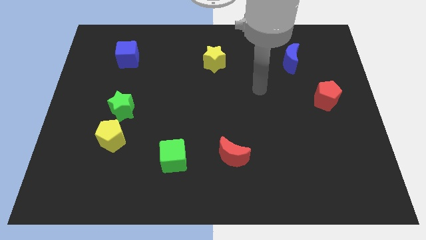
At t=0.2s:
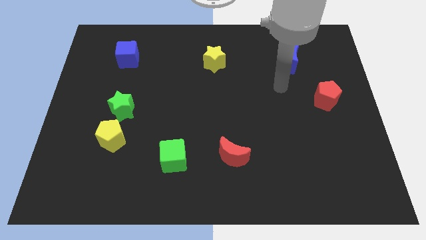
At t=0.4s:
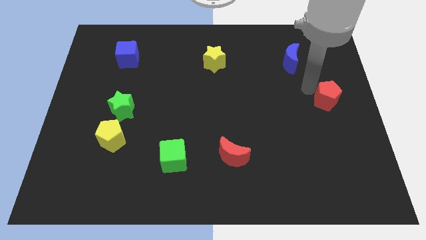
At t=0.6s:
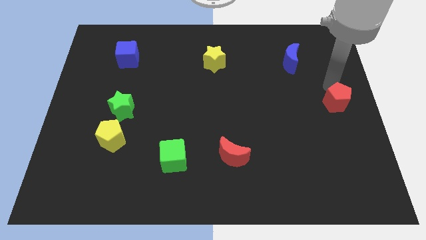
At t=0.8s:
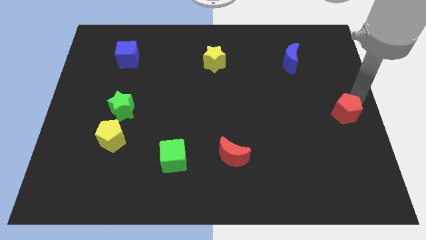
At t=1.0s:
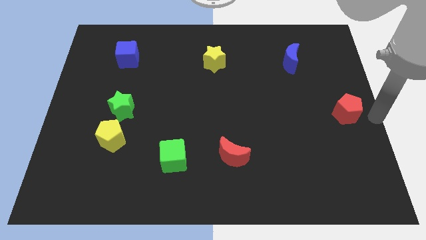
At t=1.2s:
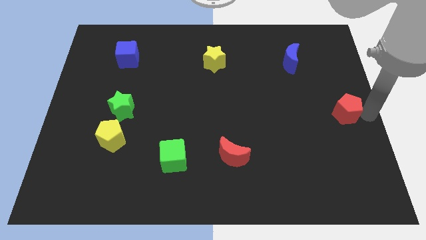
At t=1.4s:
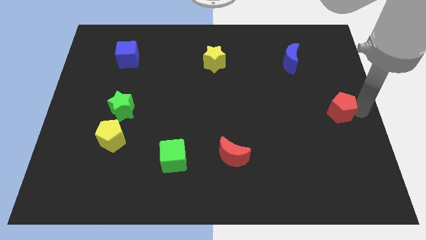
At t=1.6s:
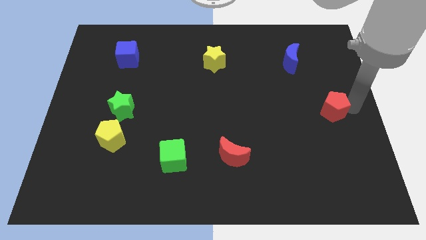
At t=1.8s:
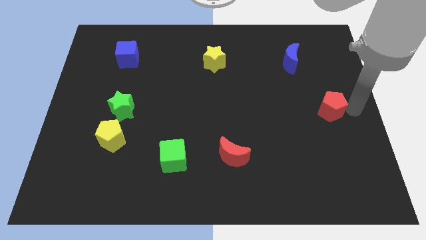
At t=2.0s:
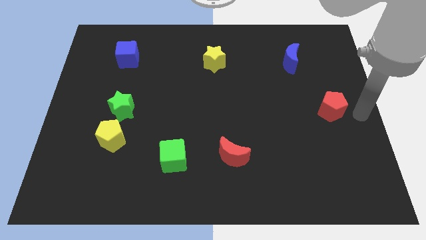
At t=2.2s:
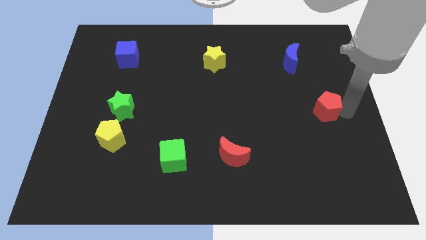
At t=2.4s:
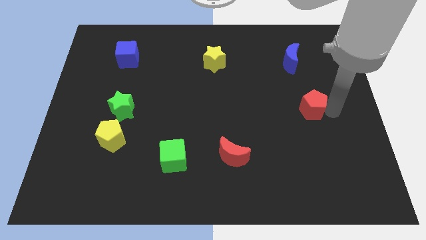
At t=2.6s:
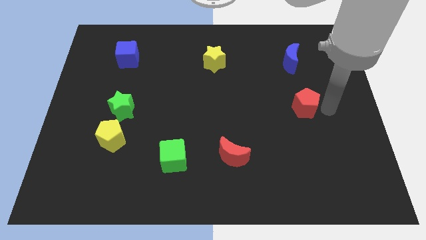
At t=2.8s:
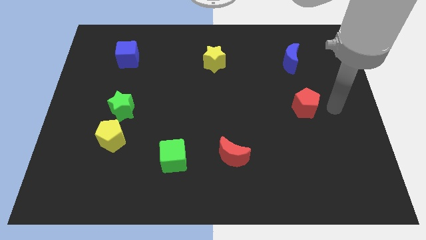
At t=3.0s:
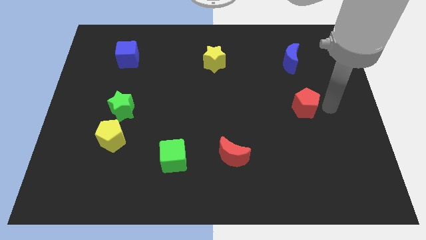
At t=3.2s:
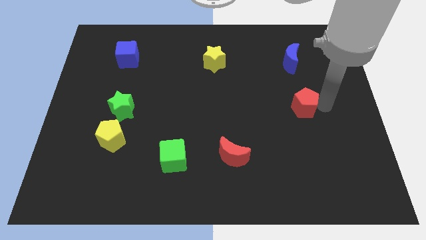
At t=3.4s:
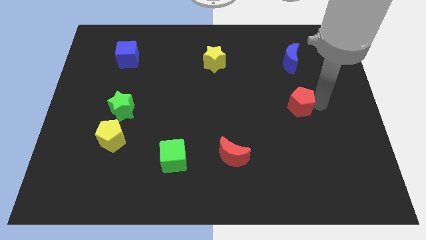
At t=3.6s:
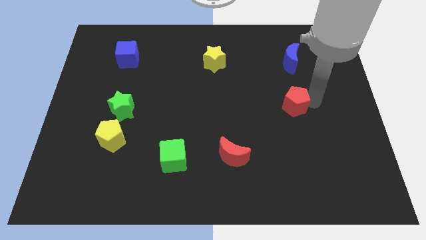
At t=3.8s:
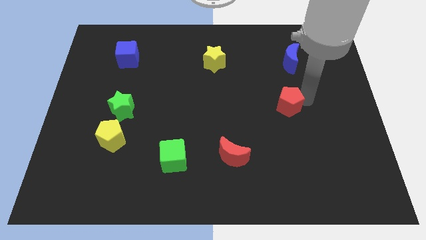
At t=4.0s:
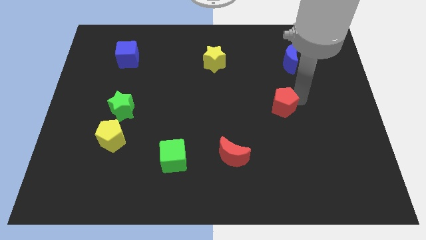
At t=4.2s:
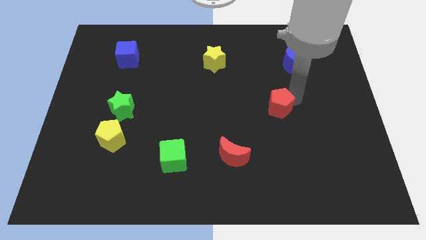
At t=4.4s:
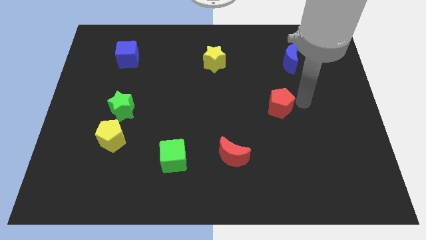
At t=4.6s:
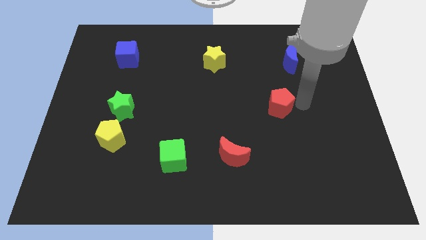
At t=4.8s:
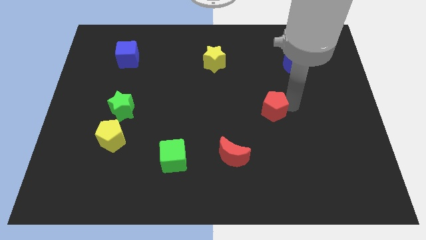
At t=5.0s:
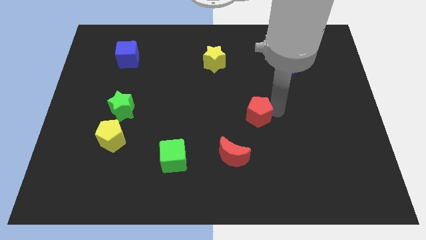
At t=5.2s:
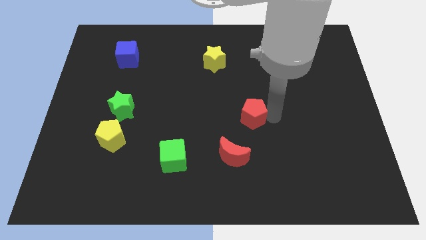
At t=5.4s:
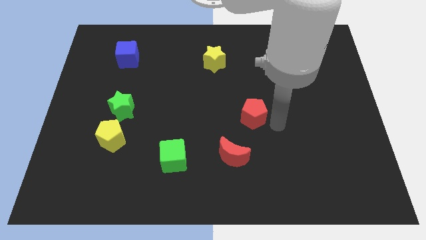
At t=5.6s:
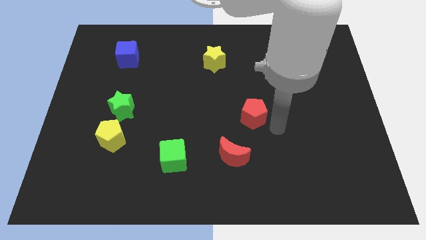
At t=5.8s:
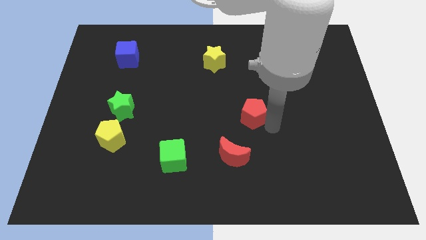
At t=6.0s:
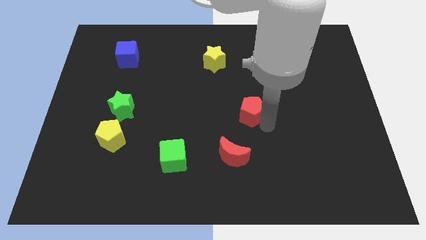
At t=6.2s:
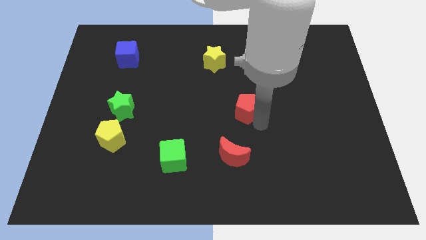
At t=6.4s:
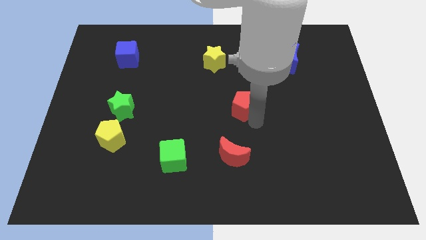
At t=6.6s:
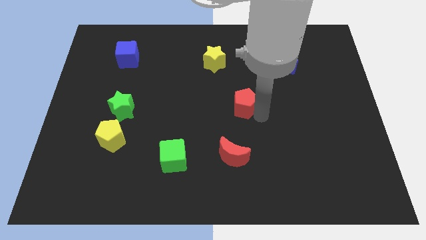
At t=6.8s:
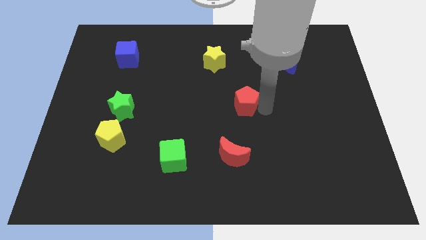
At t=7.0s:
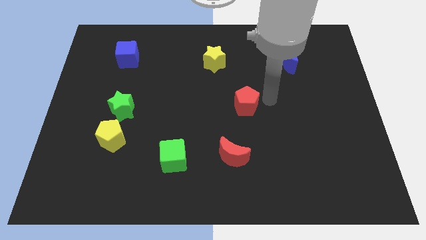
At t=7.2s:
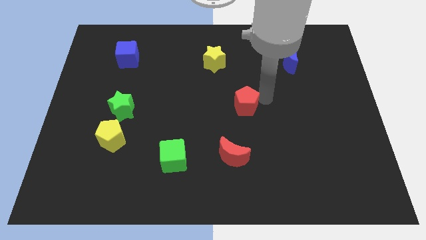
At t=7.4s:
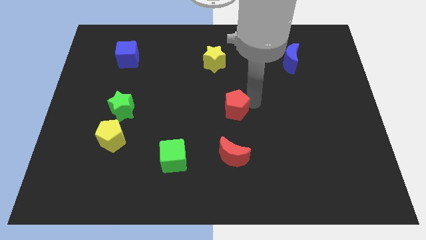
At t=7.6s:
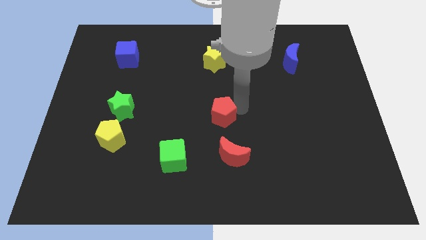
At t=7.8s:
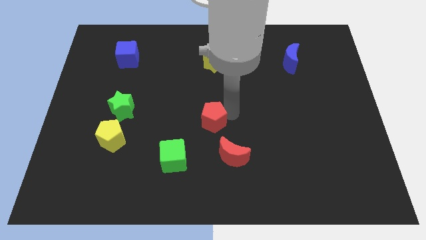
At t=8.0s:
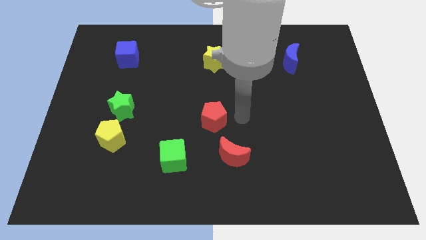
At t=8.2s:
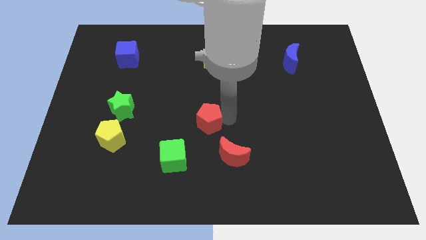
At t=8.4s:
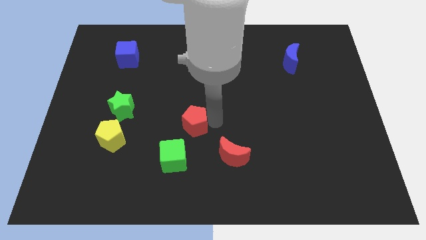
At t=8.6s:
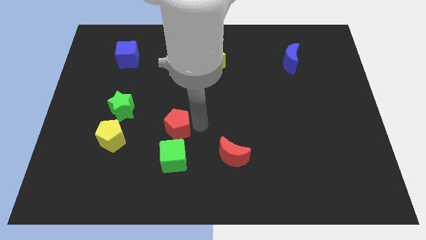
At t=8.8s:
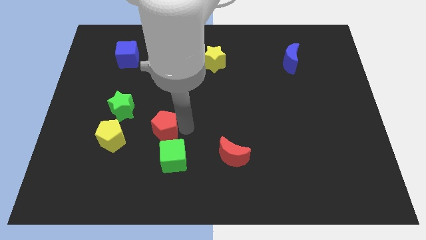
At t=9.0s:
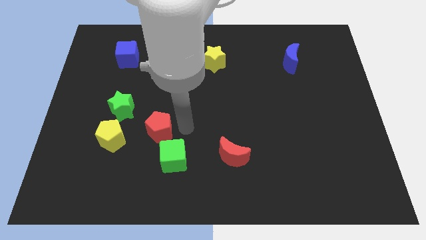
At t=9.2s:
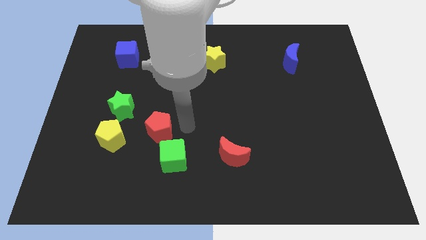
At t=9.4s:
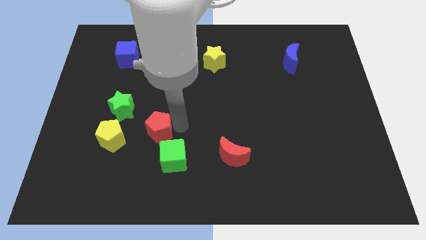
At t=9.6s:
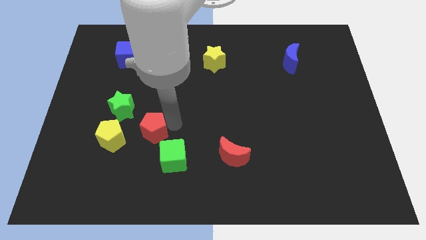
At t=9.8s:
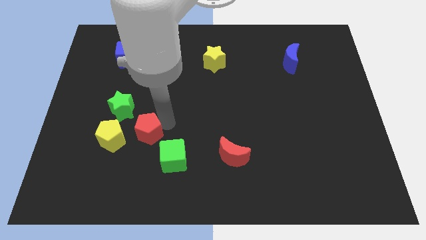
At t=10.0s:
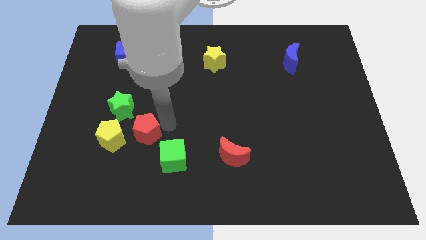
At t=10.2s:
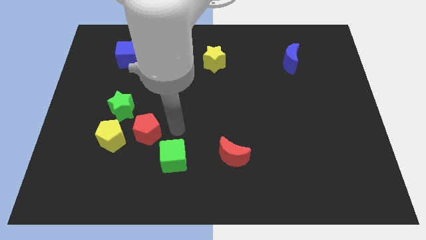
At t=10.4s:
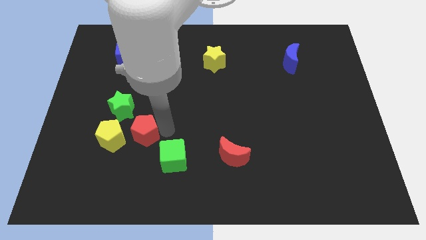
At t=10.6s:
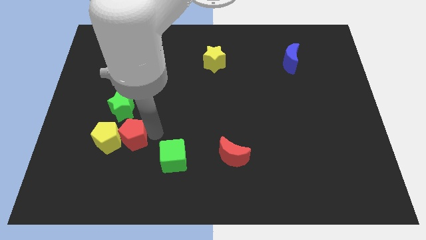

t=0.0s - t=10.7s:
slide the red pentagon close to the yellow pentagon

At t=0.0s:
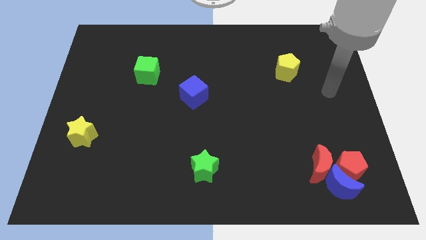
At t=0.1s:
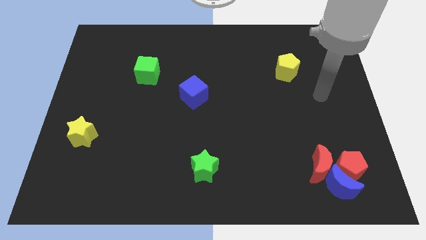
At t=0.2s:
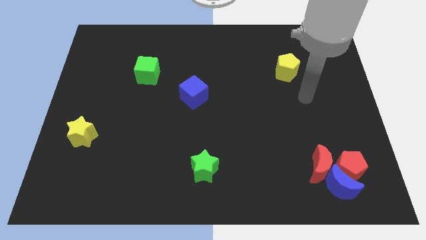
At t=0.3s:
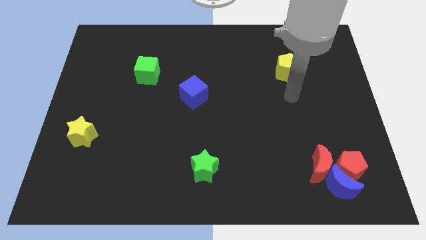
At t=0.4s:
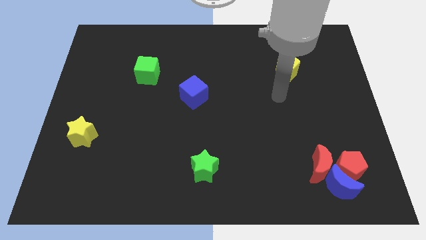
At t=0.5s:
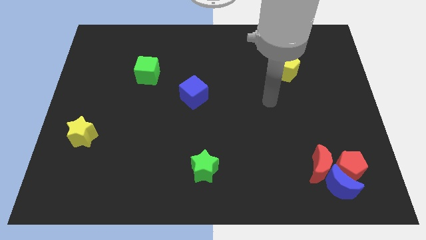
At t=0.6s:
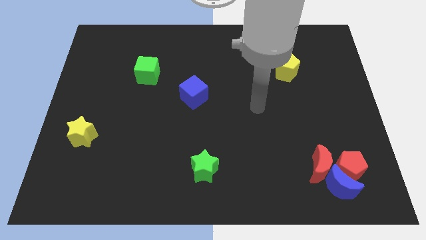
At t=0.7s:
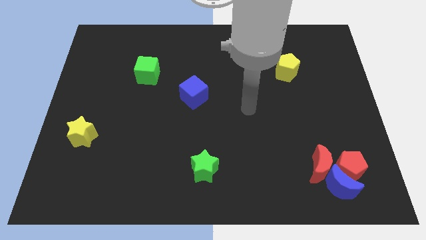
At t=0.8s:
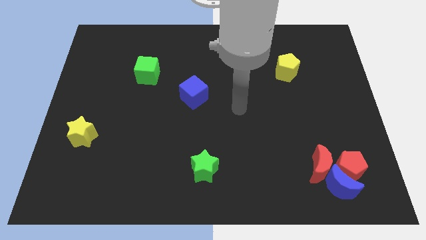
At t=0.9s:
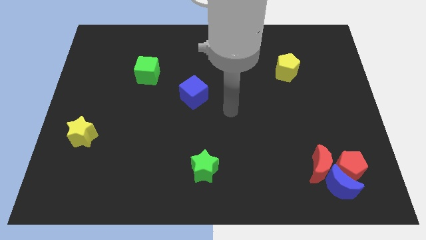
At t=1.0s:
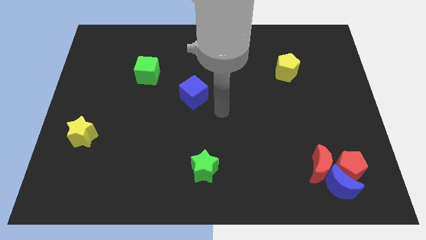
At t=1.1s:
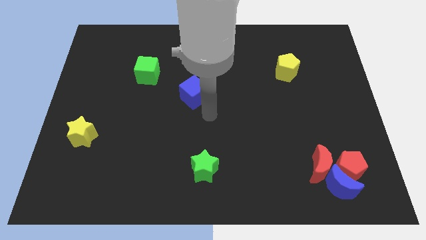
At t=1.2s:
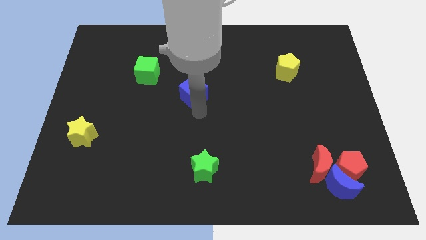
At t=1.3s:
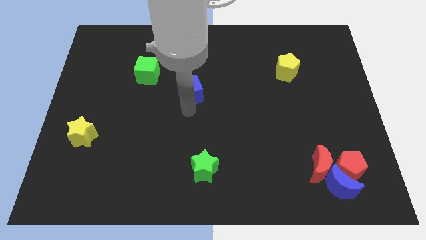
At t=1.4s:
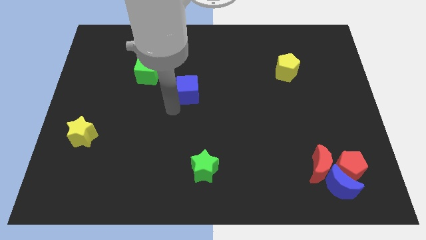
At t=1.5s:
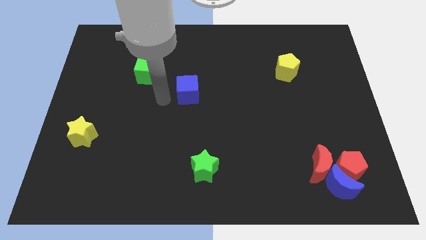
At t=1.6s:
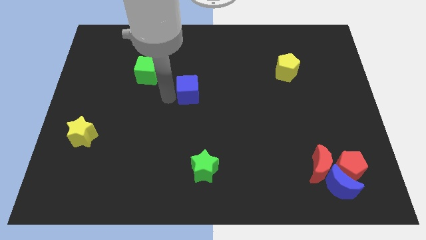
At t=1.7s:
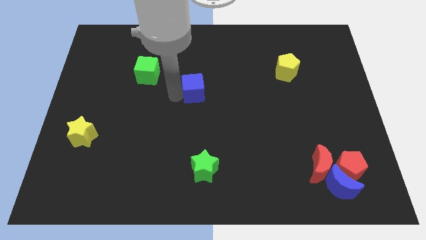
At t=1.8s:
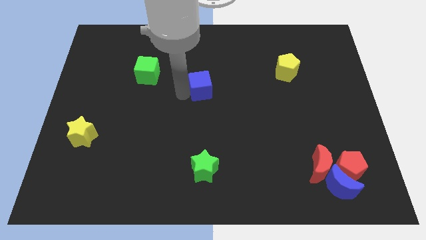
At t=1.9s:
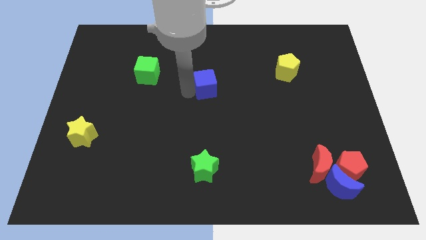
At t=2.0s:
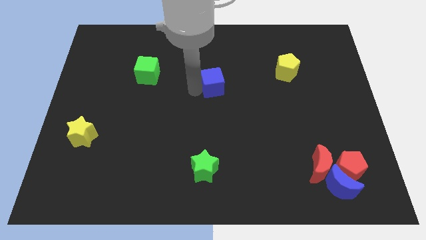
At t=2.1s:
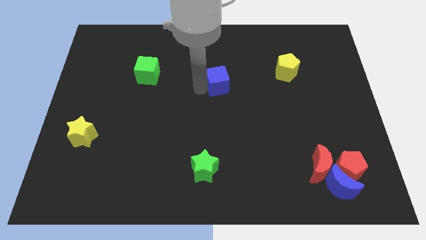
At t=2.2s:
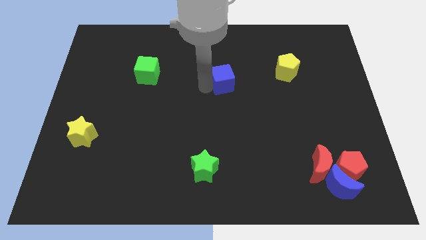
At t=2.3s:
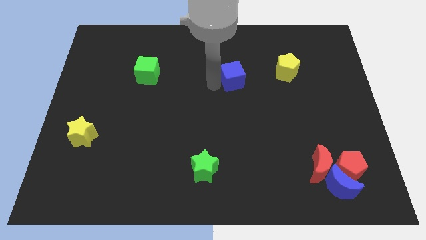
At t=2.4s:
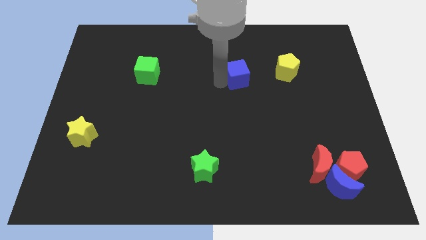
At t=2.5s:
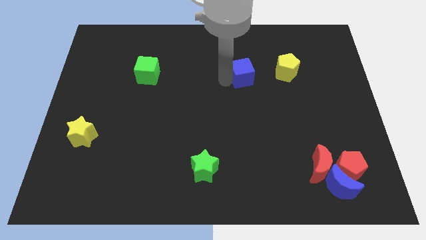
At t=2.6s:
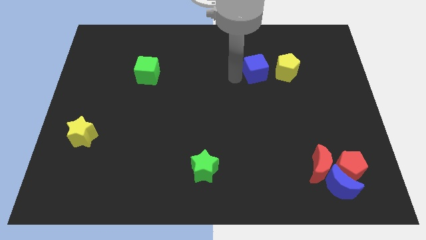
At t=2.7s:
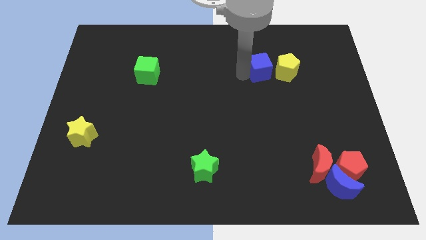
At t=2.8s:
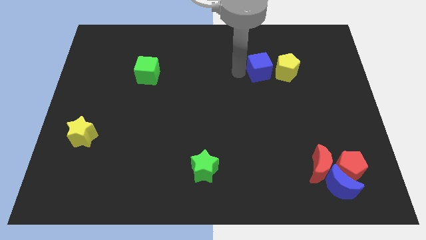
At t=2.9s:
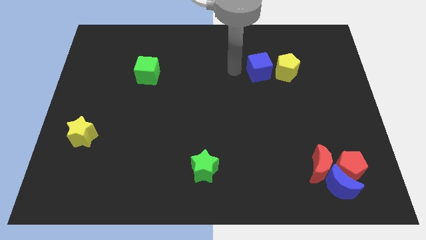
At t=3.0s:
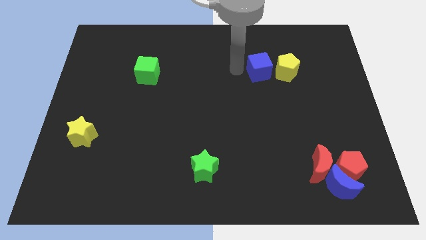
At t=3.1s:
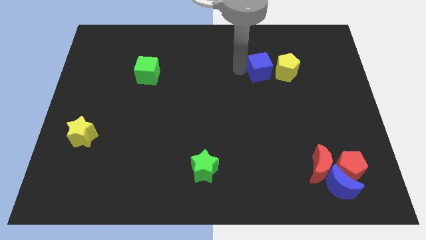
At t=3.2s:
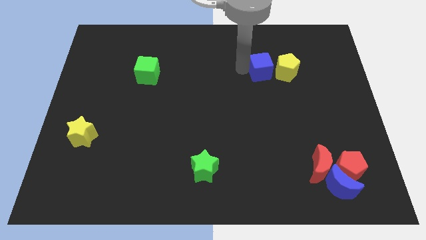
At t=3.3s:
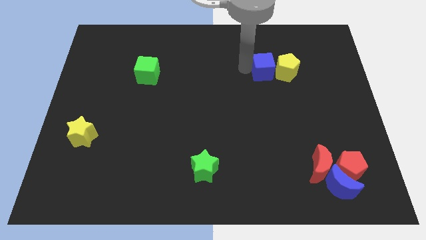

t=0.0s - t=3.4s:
put the blue cube next to the yellow pentagon
